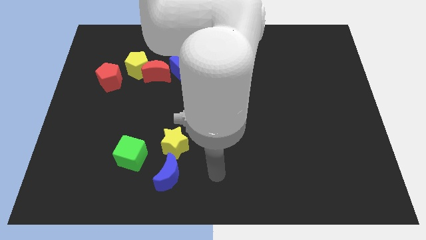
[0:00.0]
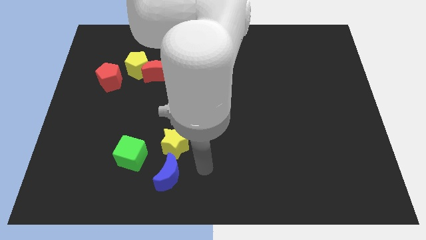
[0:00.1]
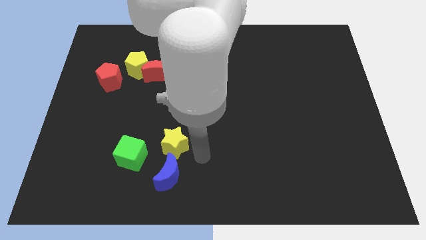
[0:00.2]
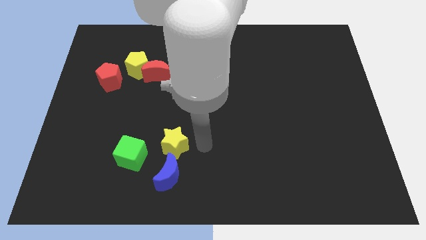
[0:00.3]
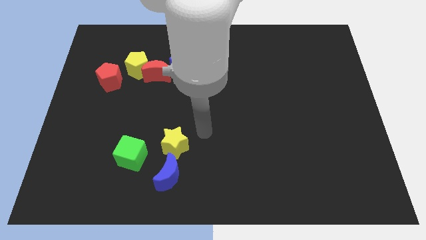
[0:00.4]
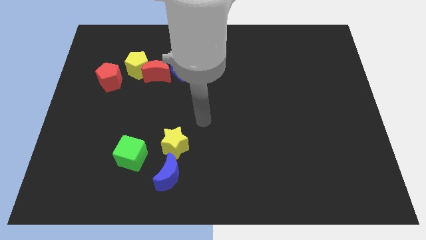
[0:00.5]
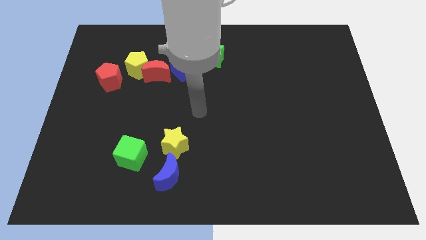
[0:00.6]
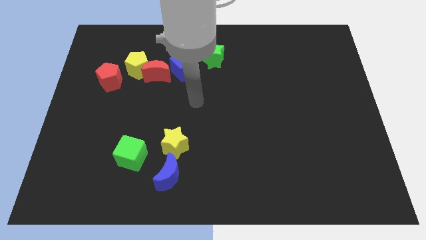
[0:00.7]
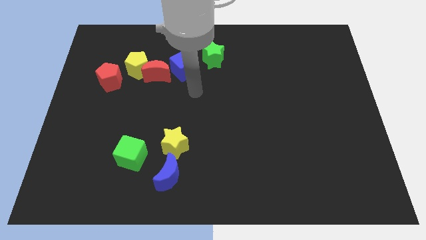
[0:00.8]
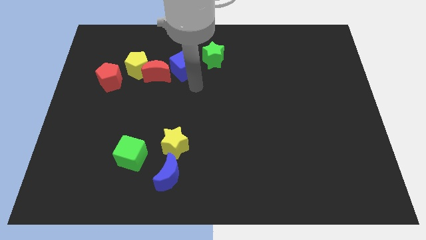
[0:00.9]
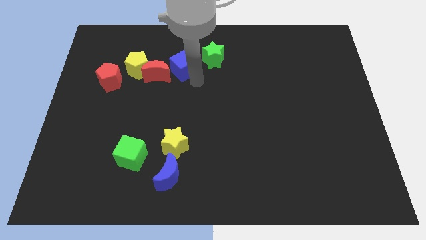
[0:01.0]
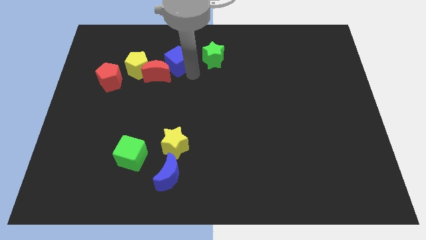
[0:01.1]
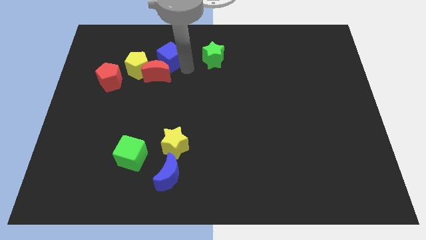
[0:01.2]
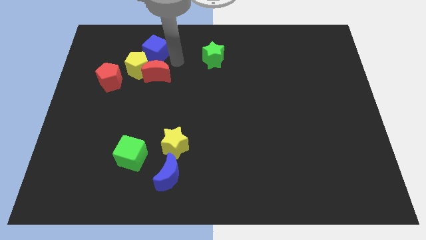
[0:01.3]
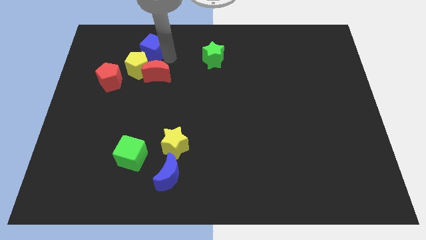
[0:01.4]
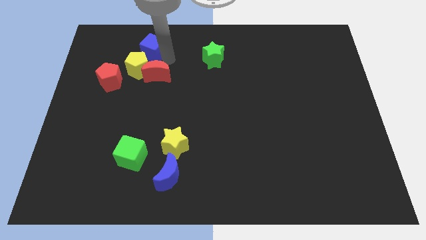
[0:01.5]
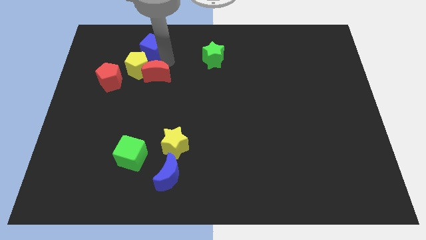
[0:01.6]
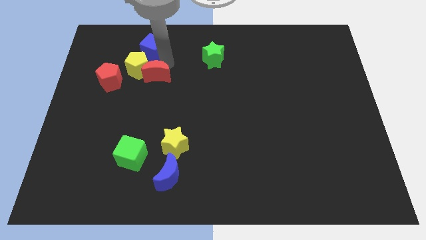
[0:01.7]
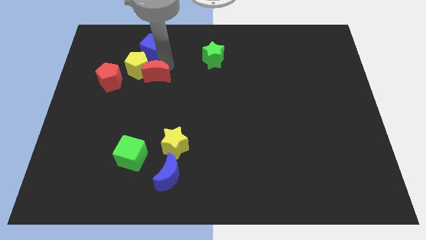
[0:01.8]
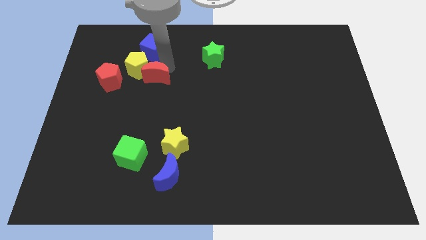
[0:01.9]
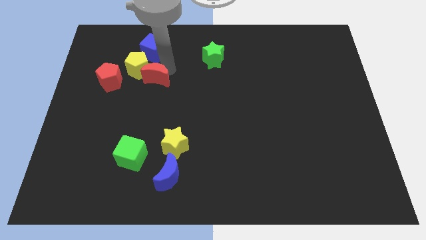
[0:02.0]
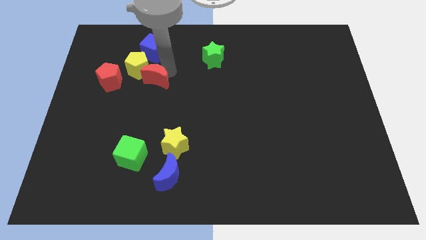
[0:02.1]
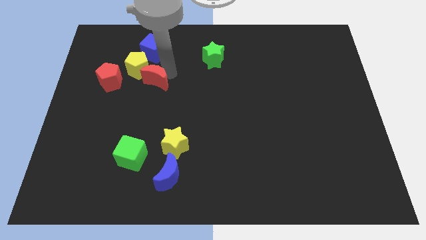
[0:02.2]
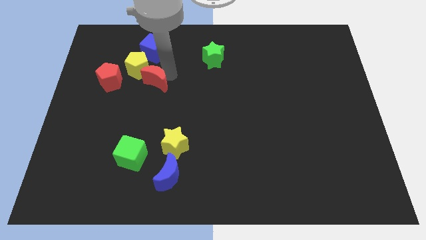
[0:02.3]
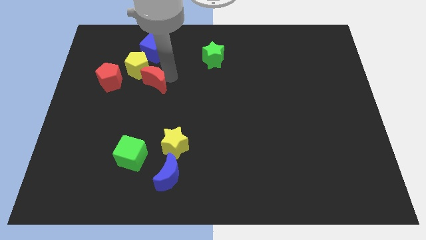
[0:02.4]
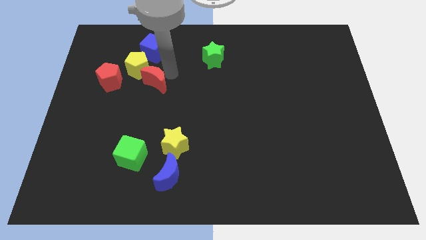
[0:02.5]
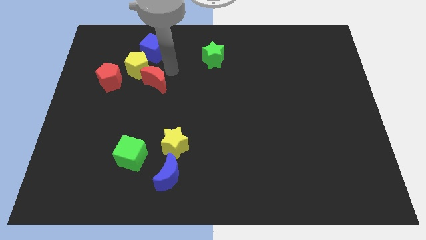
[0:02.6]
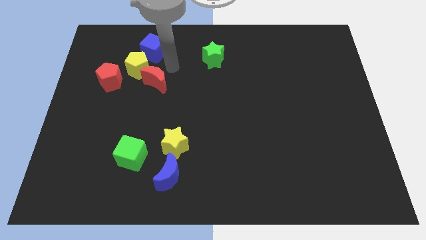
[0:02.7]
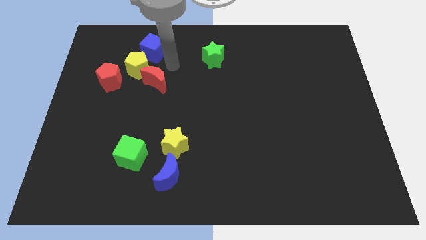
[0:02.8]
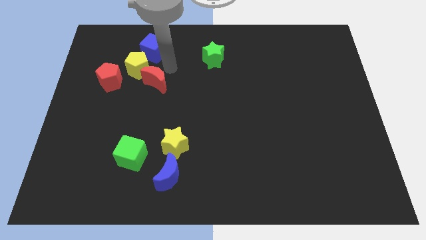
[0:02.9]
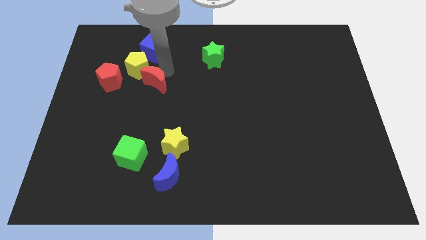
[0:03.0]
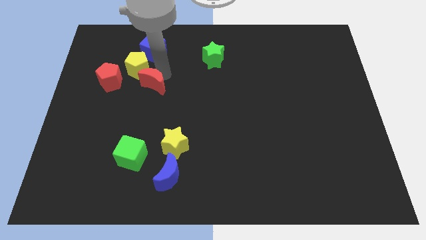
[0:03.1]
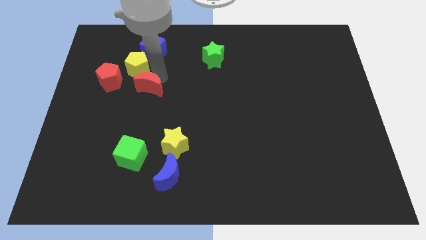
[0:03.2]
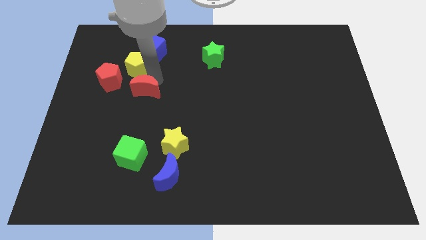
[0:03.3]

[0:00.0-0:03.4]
separate the red moon from the yellow pentagon and blue cube

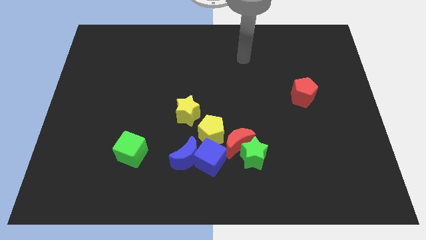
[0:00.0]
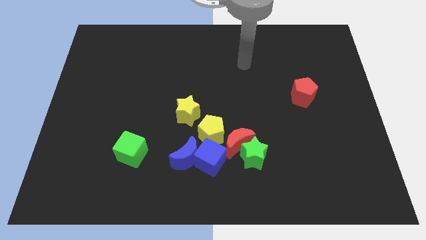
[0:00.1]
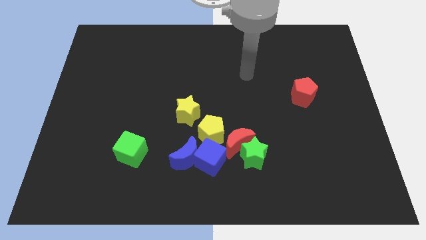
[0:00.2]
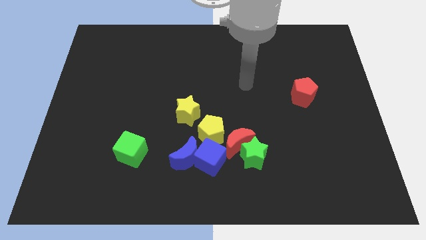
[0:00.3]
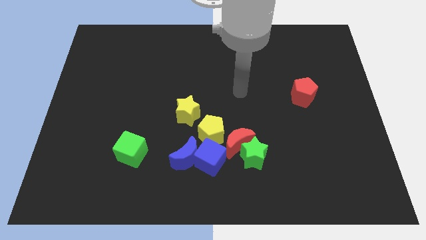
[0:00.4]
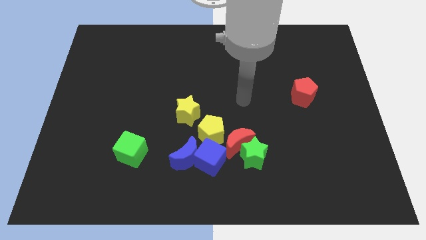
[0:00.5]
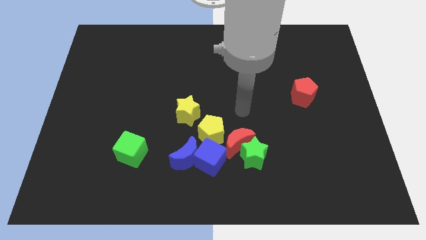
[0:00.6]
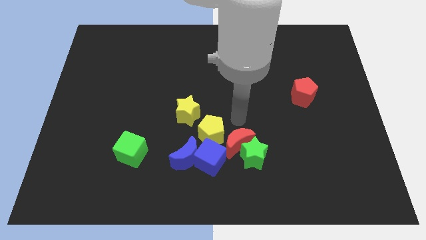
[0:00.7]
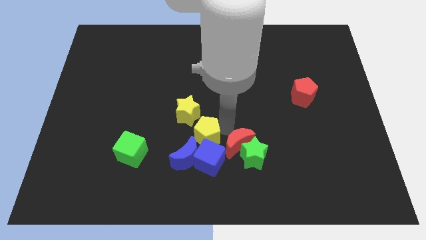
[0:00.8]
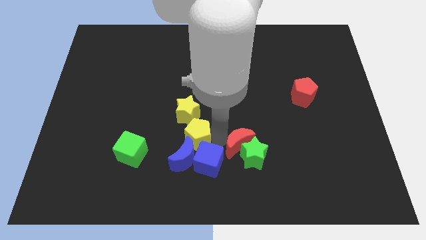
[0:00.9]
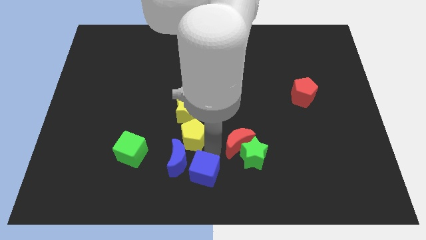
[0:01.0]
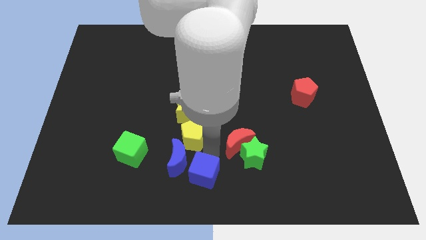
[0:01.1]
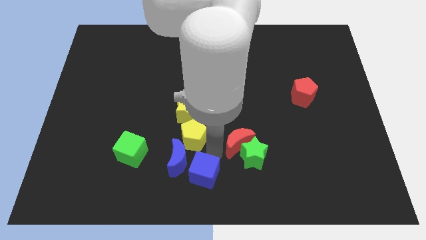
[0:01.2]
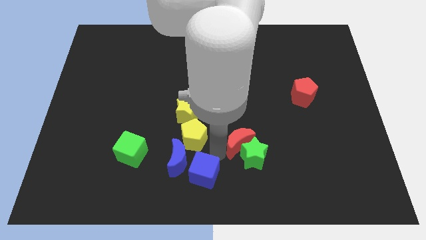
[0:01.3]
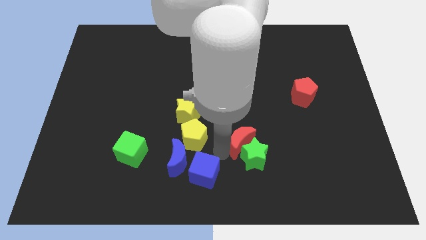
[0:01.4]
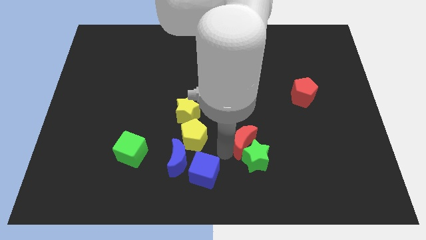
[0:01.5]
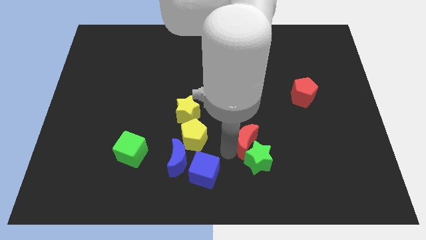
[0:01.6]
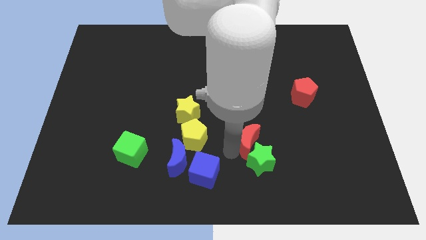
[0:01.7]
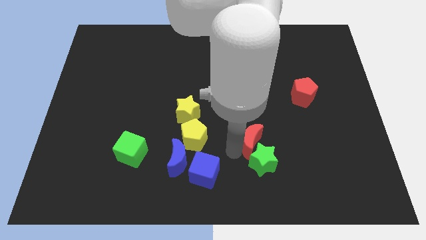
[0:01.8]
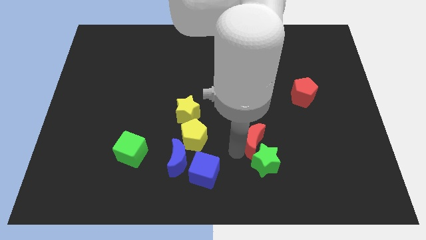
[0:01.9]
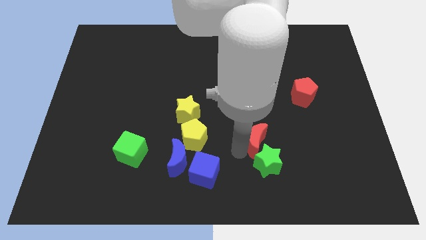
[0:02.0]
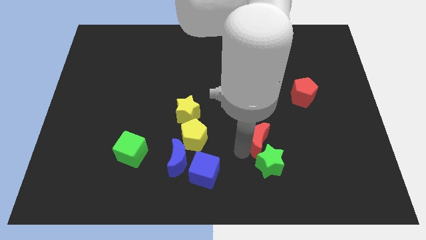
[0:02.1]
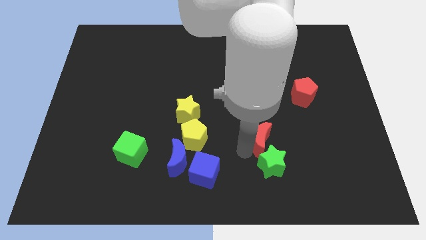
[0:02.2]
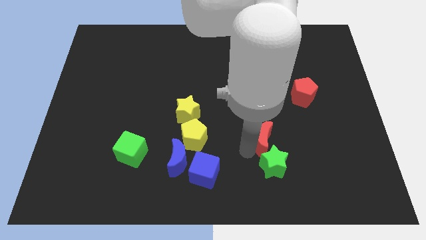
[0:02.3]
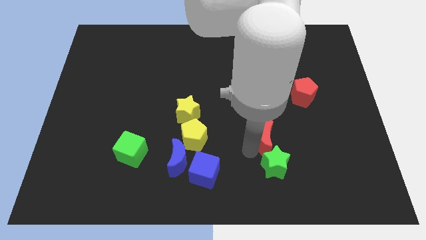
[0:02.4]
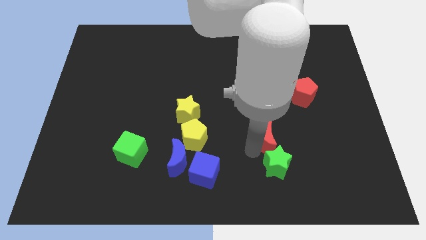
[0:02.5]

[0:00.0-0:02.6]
pull the red moon apart from the clump

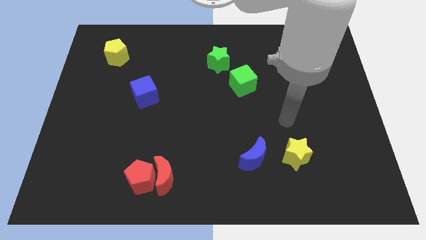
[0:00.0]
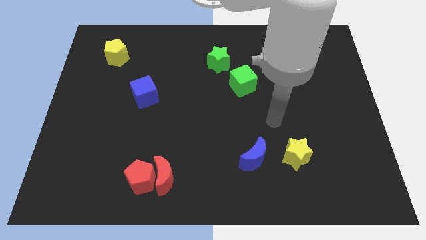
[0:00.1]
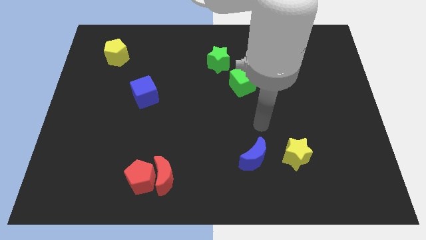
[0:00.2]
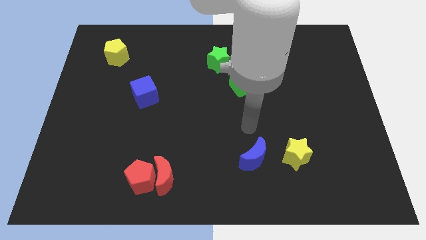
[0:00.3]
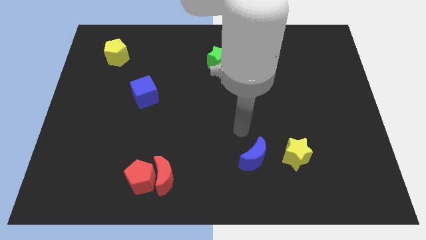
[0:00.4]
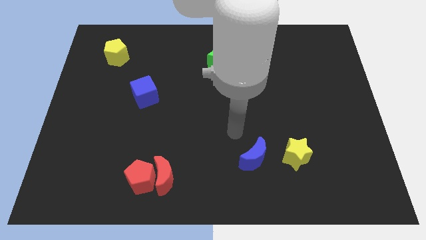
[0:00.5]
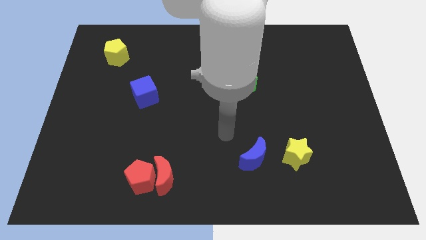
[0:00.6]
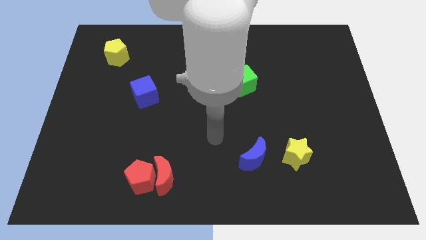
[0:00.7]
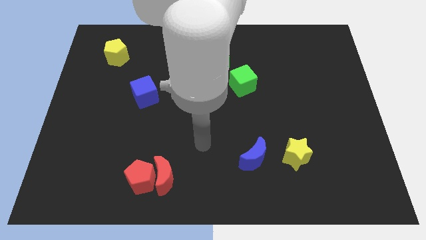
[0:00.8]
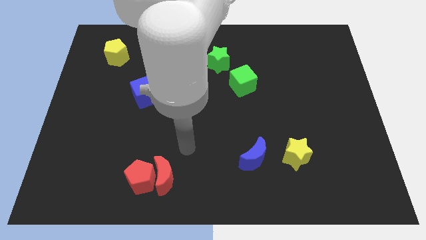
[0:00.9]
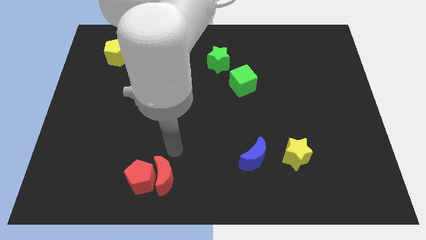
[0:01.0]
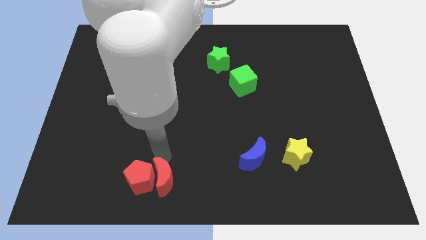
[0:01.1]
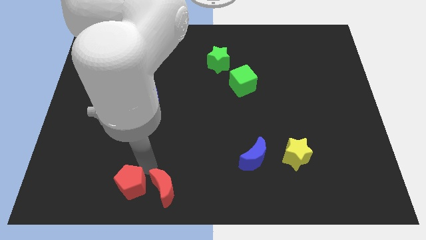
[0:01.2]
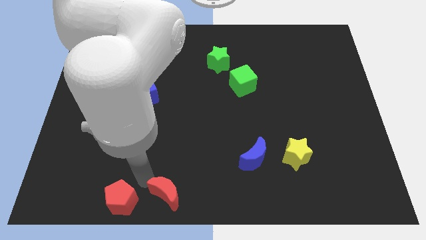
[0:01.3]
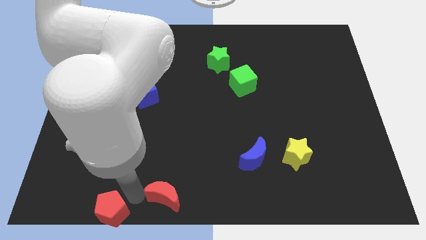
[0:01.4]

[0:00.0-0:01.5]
separate the red moon from the red pentagon

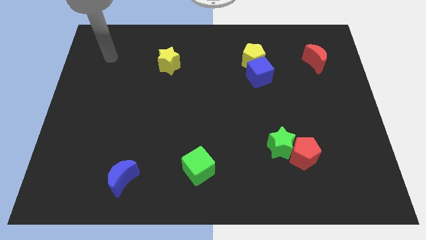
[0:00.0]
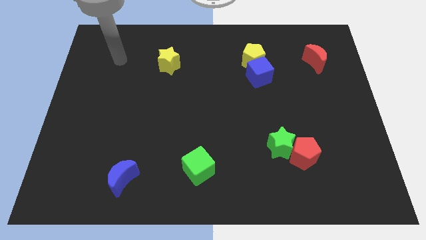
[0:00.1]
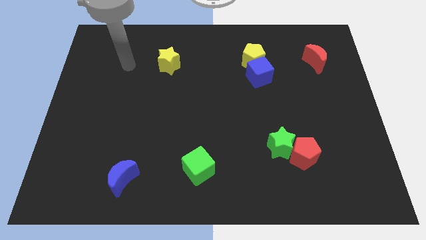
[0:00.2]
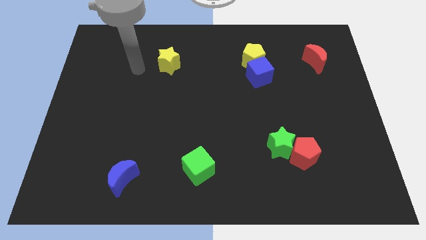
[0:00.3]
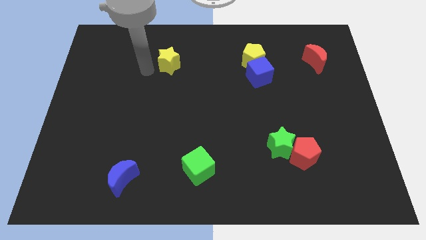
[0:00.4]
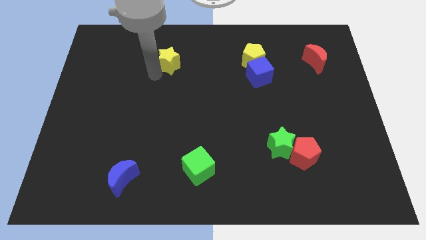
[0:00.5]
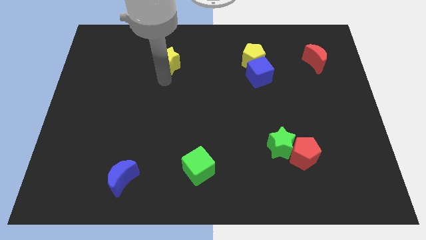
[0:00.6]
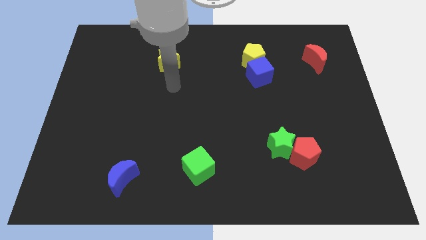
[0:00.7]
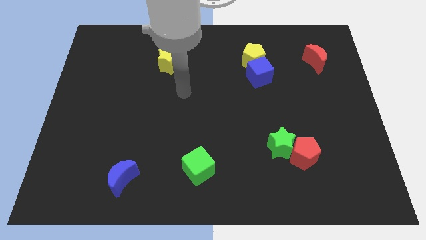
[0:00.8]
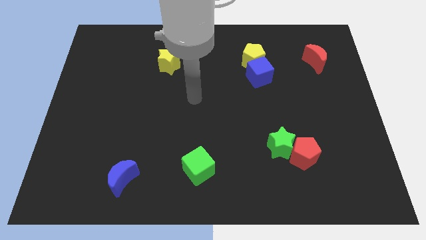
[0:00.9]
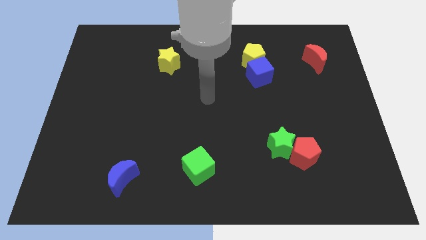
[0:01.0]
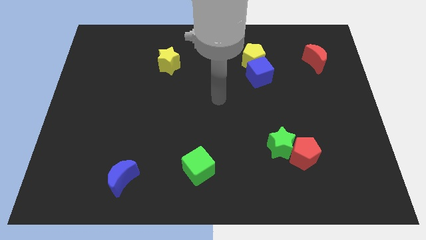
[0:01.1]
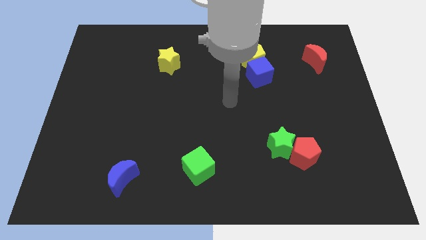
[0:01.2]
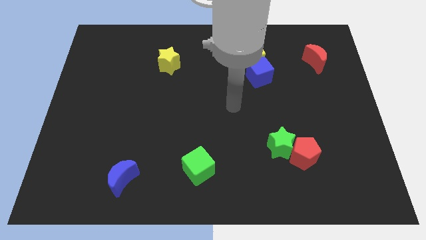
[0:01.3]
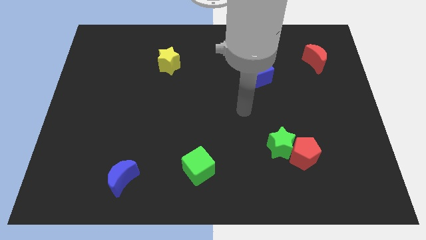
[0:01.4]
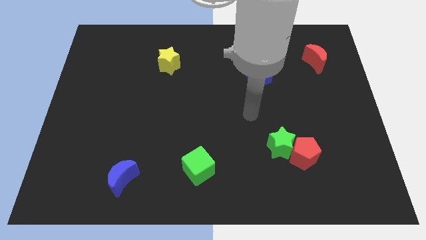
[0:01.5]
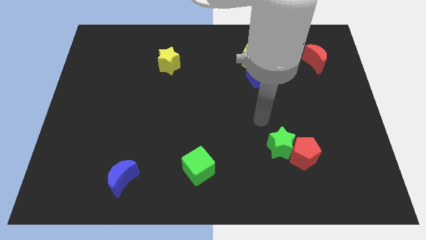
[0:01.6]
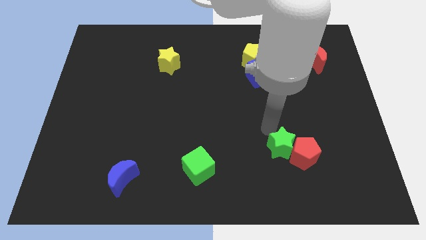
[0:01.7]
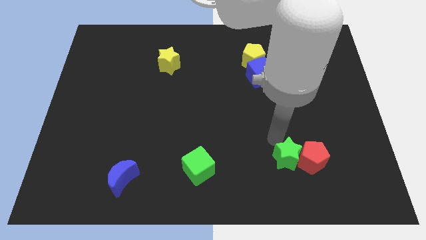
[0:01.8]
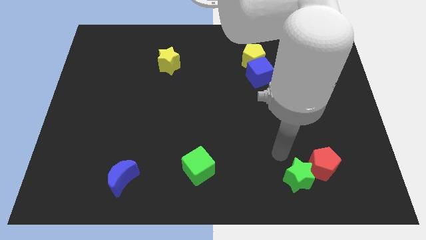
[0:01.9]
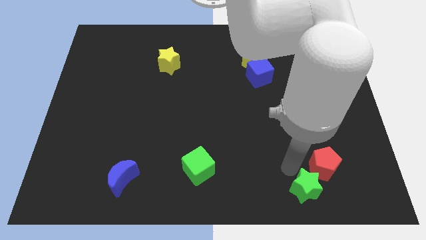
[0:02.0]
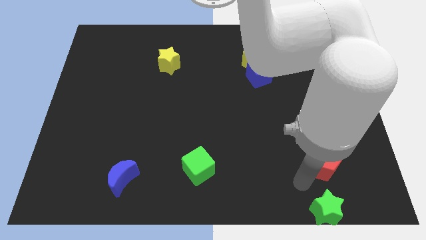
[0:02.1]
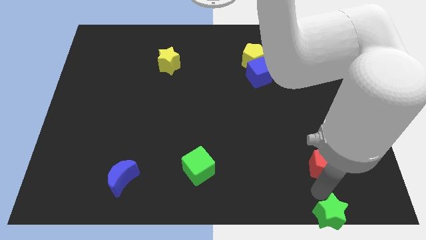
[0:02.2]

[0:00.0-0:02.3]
move the red pentagon away from the green star
